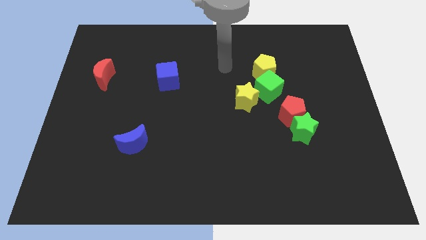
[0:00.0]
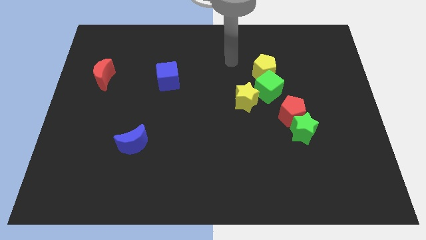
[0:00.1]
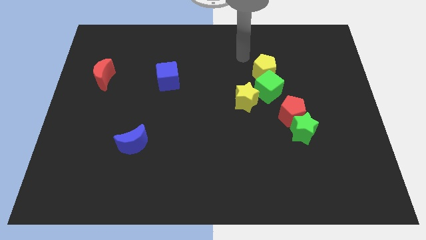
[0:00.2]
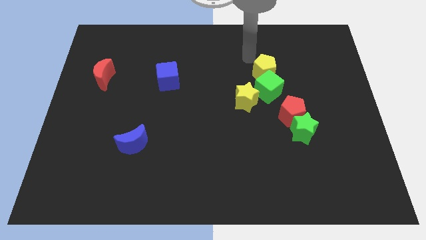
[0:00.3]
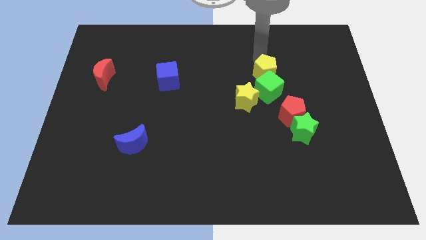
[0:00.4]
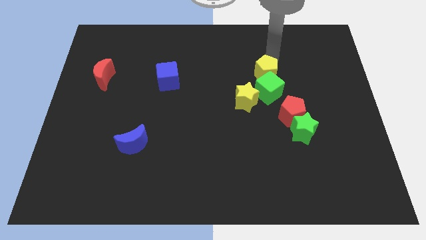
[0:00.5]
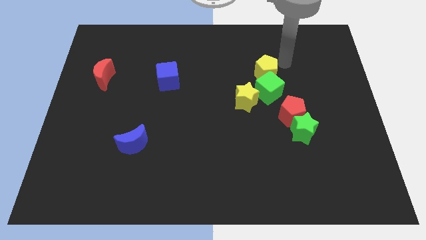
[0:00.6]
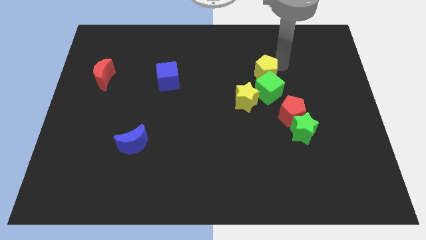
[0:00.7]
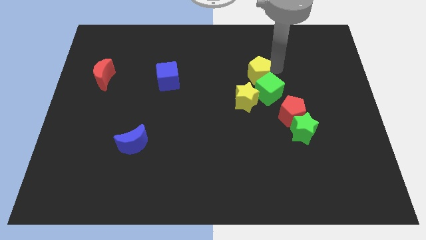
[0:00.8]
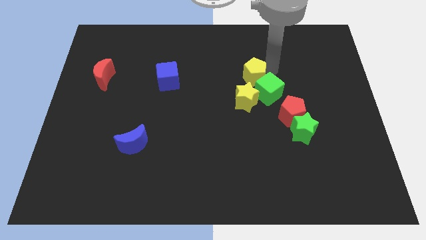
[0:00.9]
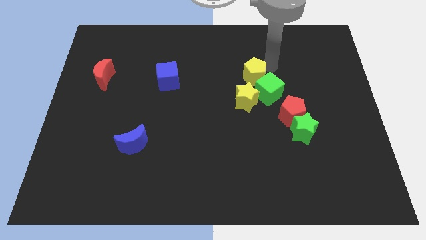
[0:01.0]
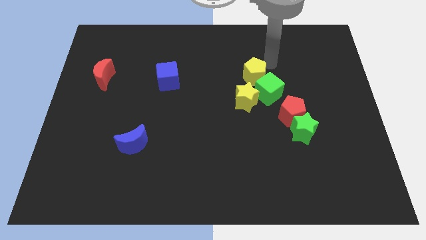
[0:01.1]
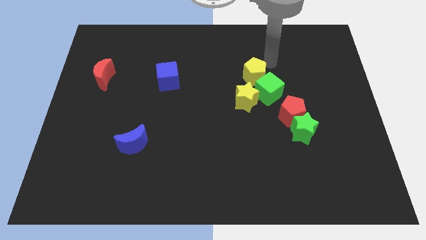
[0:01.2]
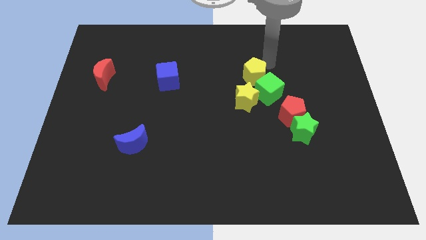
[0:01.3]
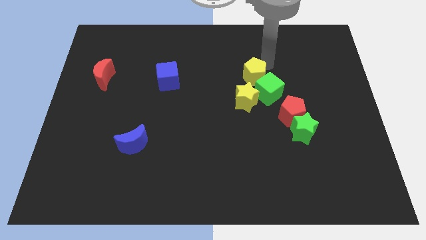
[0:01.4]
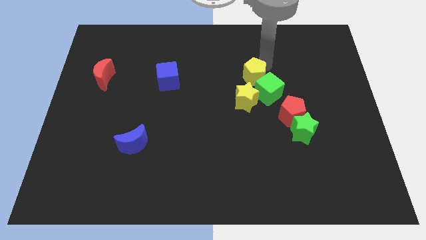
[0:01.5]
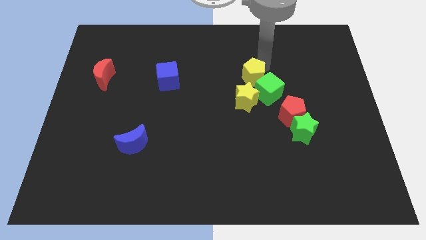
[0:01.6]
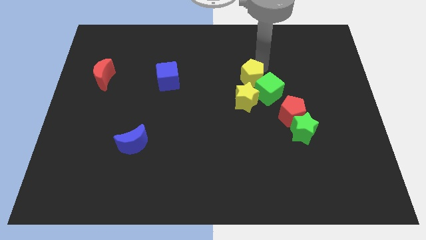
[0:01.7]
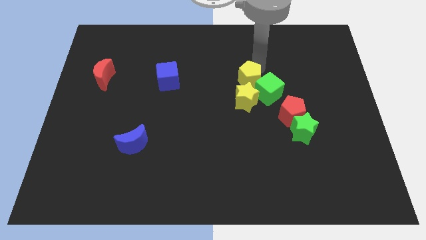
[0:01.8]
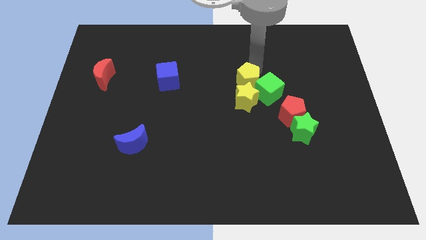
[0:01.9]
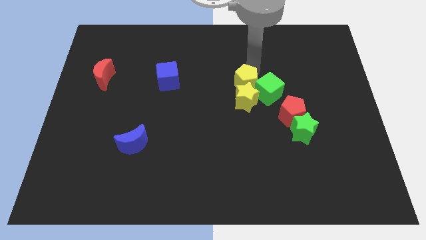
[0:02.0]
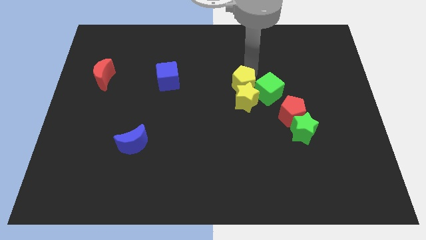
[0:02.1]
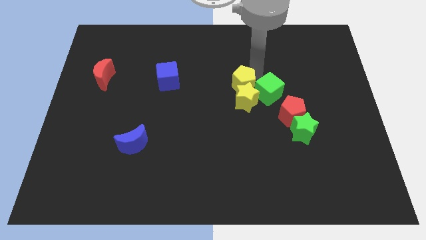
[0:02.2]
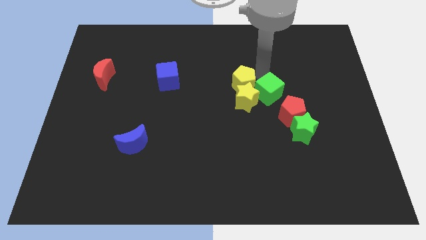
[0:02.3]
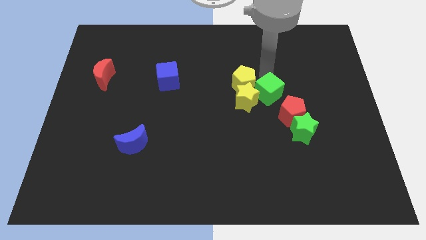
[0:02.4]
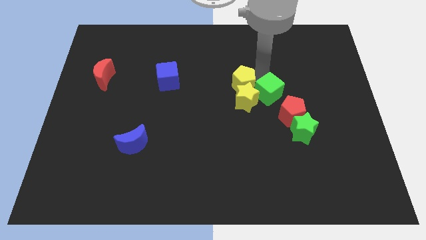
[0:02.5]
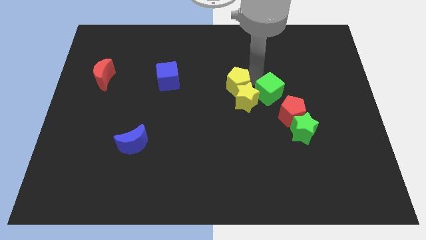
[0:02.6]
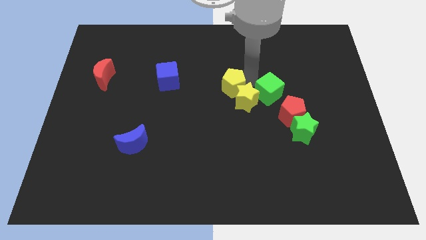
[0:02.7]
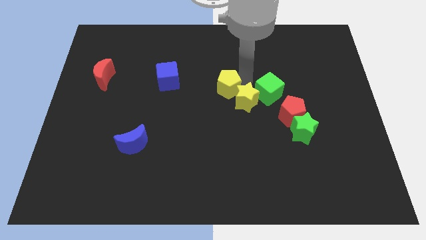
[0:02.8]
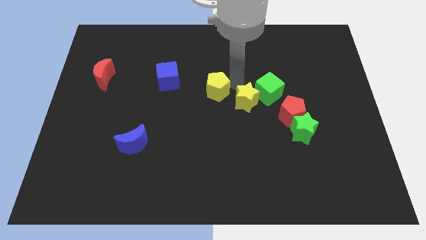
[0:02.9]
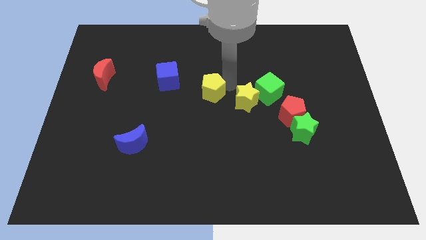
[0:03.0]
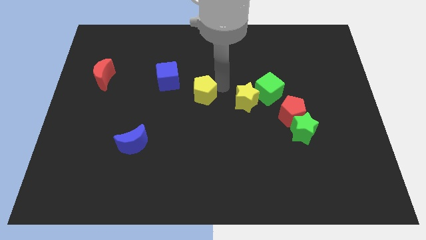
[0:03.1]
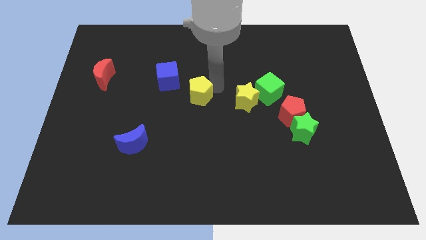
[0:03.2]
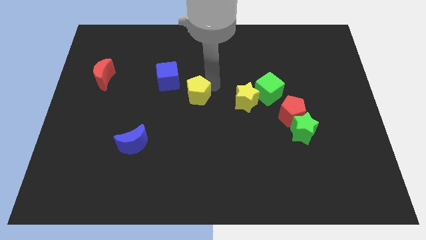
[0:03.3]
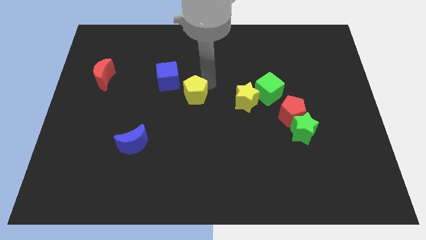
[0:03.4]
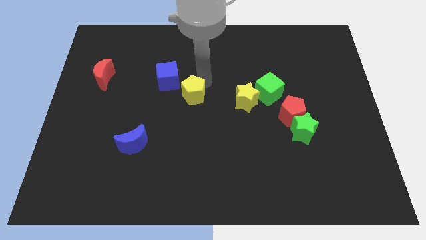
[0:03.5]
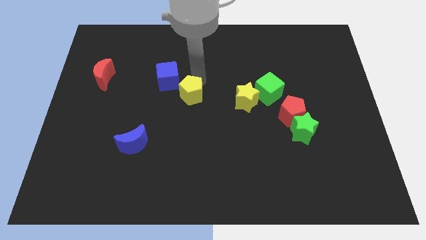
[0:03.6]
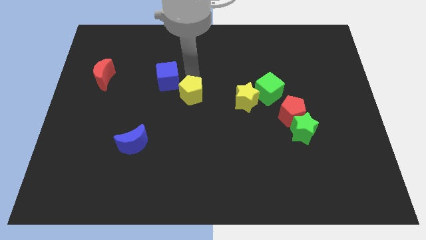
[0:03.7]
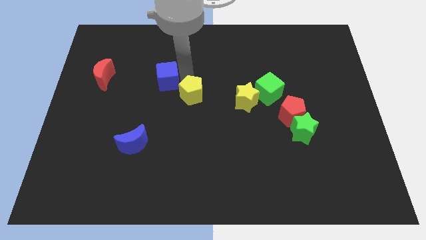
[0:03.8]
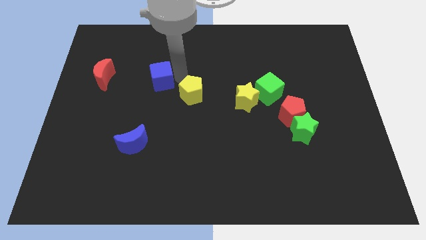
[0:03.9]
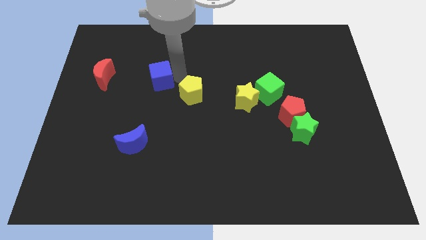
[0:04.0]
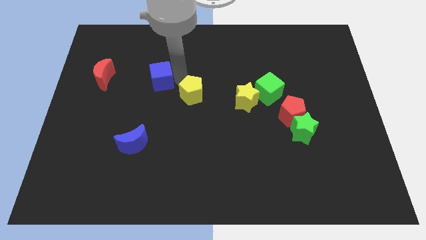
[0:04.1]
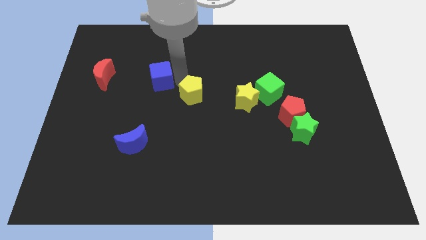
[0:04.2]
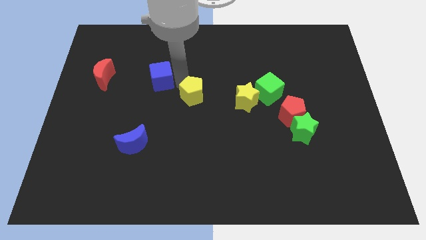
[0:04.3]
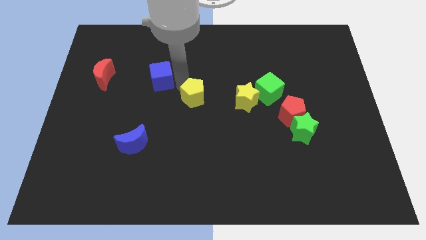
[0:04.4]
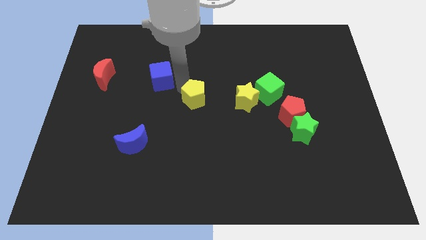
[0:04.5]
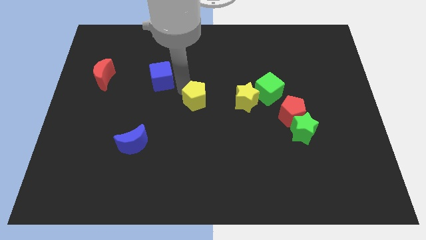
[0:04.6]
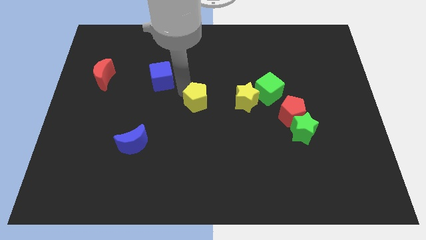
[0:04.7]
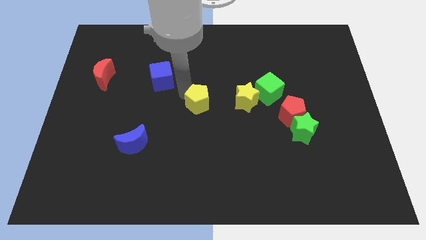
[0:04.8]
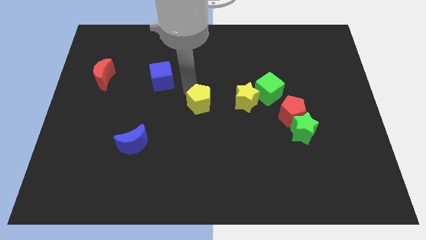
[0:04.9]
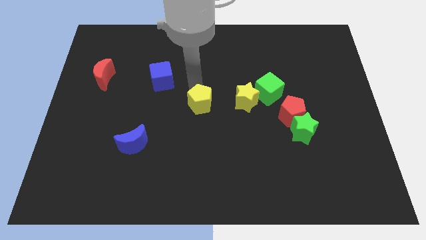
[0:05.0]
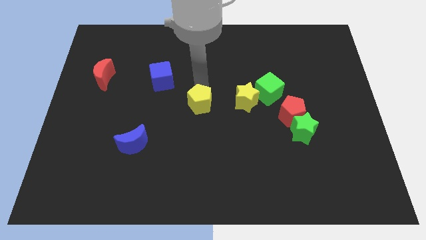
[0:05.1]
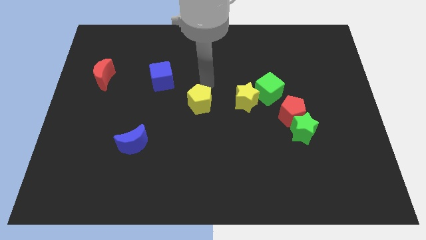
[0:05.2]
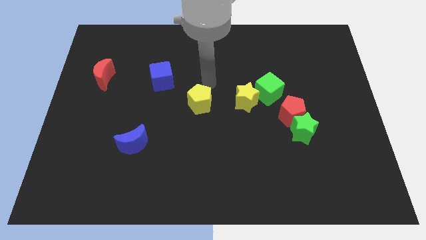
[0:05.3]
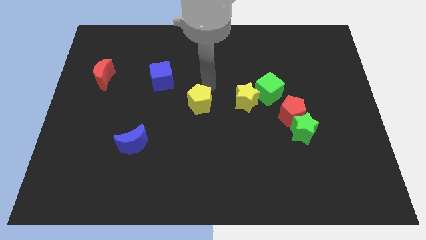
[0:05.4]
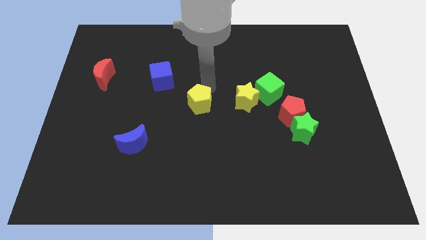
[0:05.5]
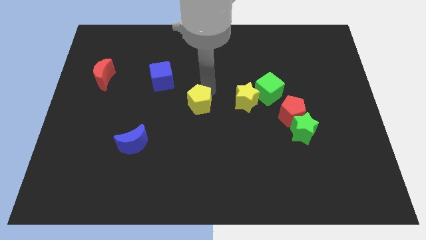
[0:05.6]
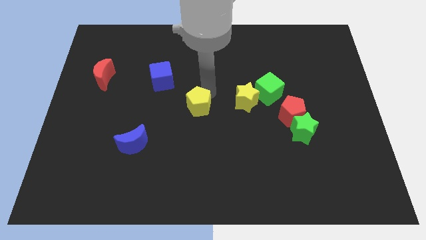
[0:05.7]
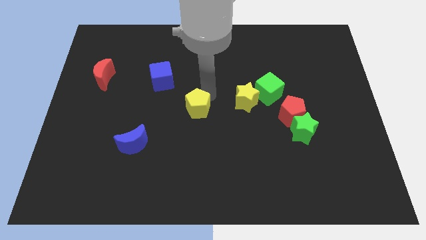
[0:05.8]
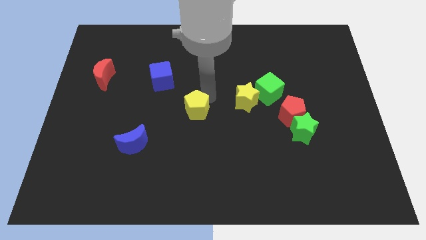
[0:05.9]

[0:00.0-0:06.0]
move the yellow pentagon diagonally down and to the left

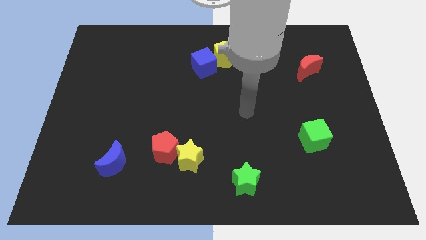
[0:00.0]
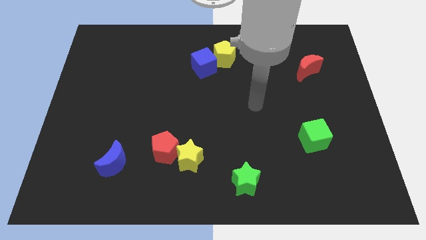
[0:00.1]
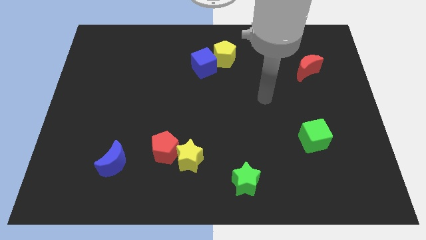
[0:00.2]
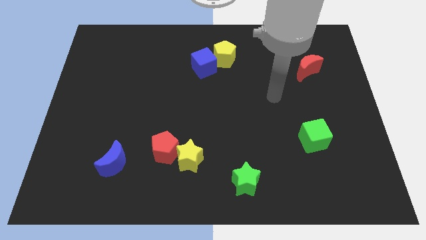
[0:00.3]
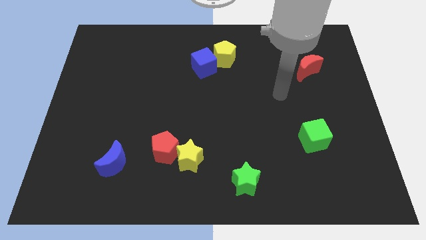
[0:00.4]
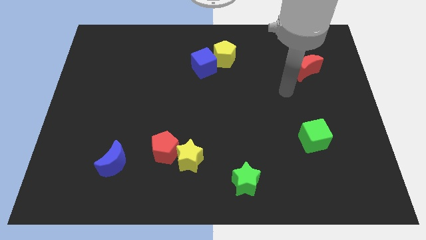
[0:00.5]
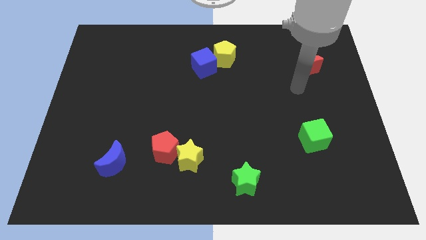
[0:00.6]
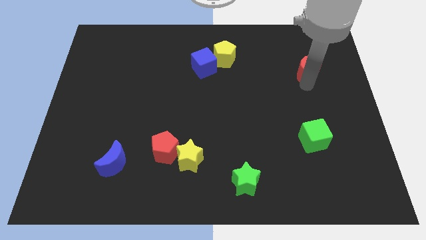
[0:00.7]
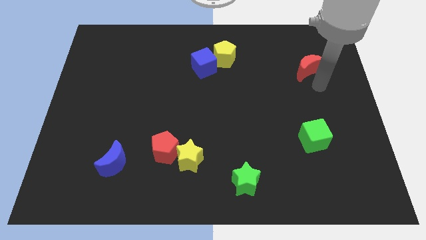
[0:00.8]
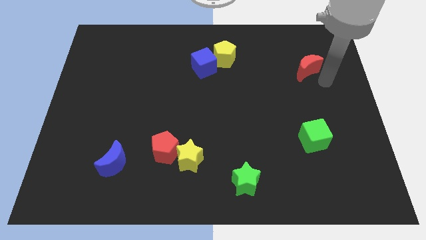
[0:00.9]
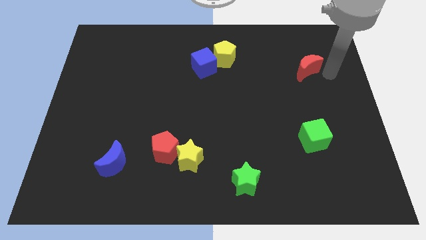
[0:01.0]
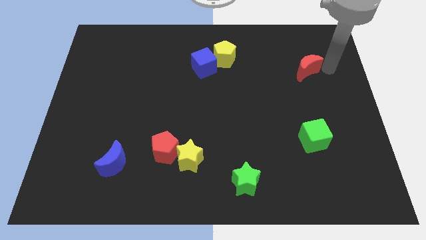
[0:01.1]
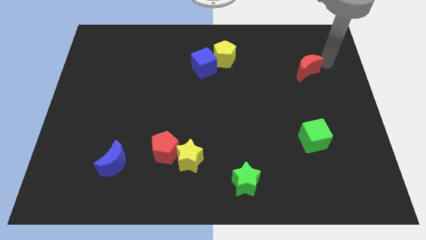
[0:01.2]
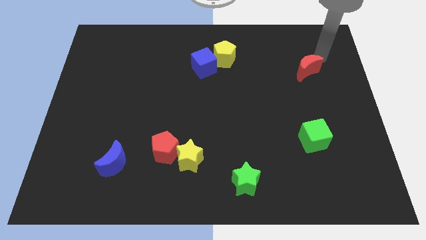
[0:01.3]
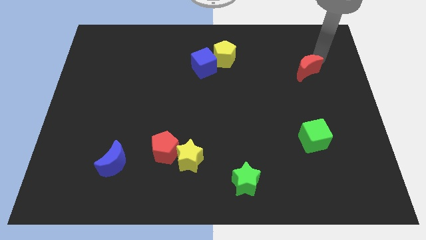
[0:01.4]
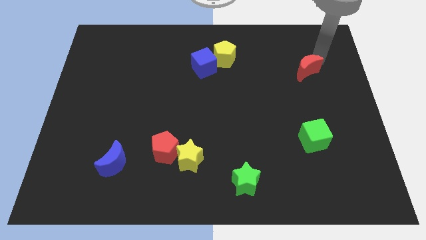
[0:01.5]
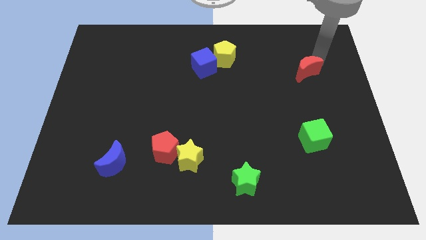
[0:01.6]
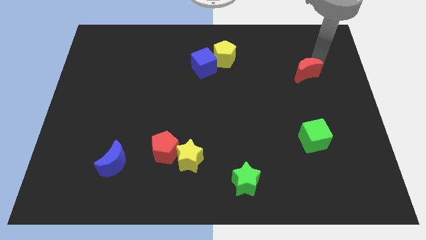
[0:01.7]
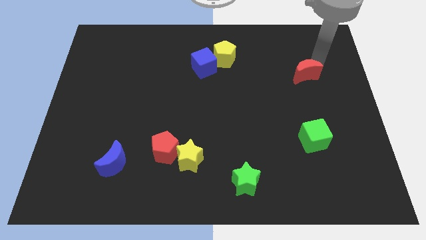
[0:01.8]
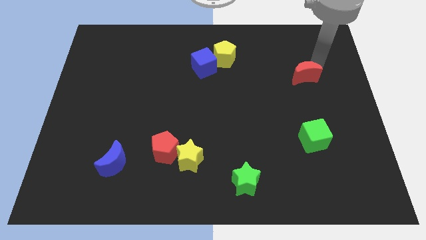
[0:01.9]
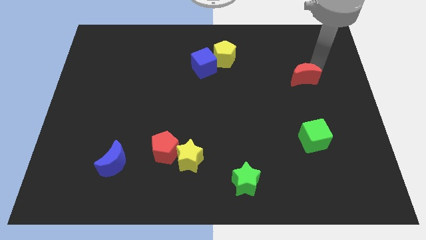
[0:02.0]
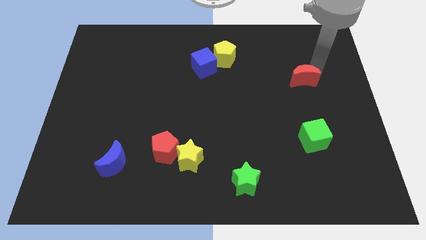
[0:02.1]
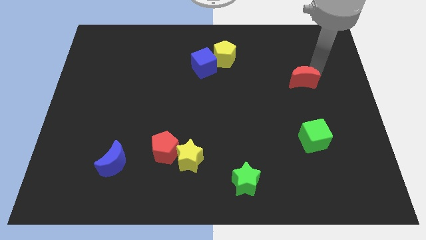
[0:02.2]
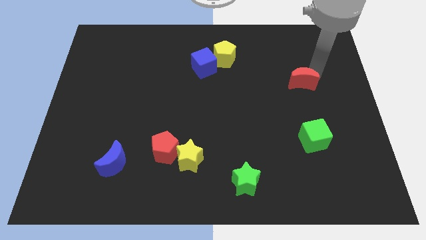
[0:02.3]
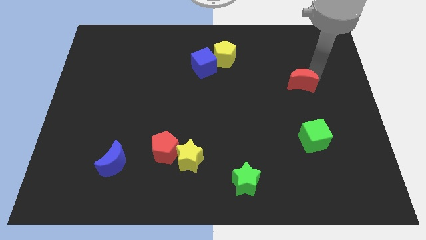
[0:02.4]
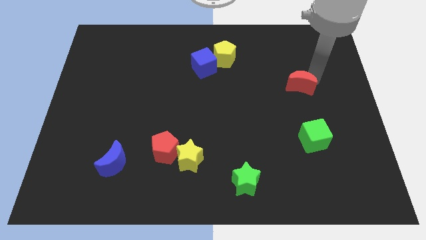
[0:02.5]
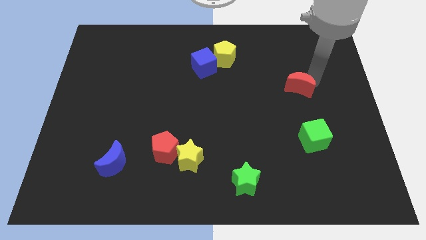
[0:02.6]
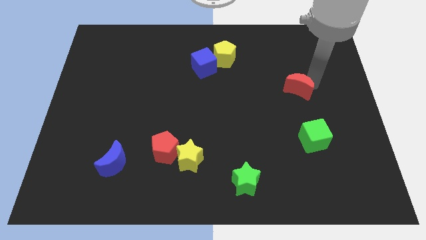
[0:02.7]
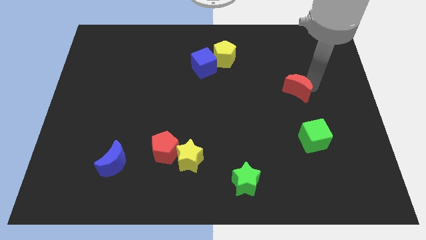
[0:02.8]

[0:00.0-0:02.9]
move the red moon downwards and then to the left a bit
